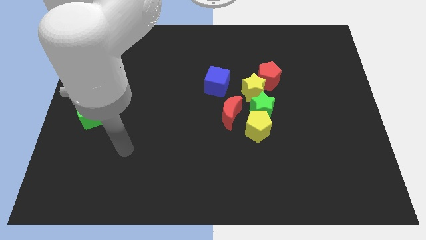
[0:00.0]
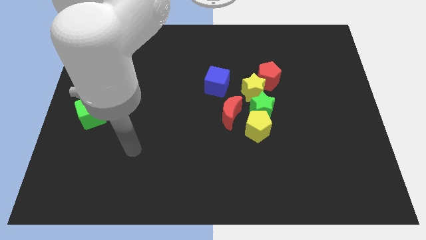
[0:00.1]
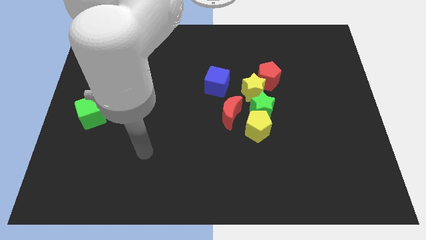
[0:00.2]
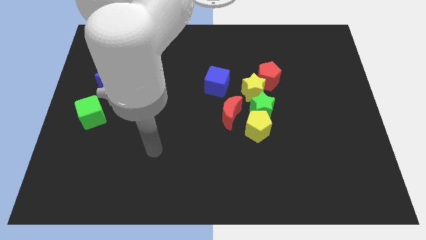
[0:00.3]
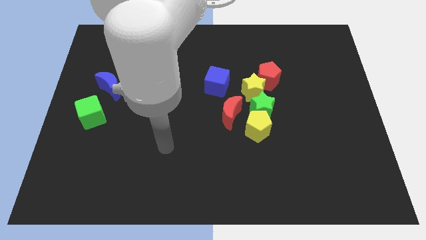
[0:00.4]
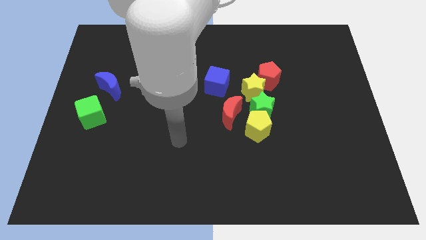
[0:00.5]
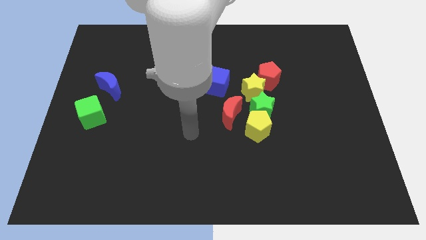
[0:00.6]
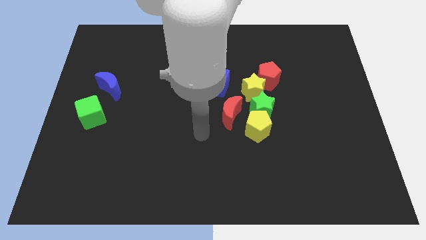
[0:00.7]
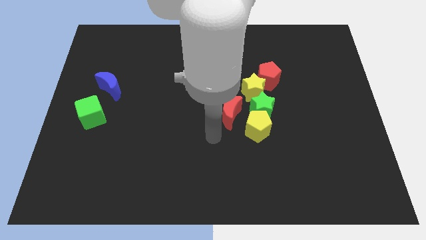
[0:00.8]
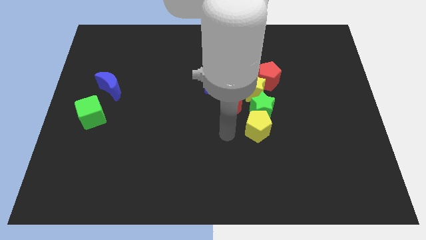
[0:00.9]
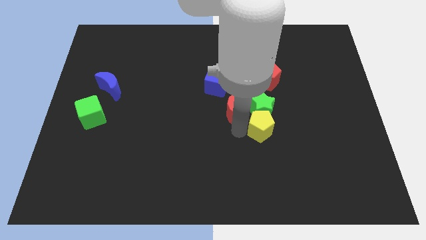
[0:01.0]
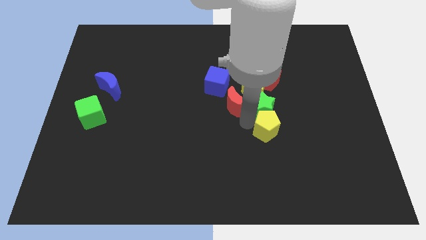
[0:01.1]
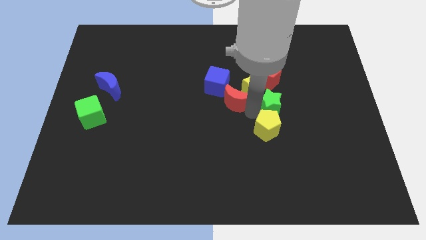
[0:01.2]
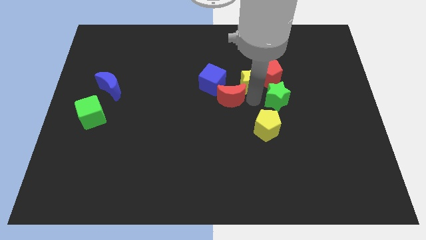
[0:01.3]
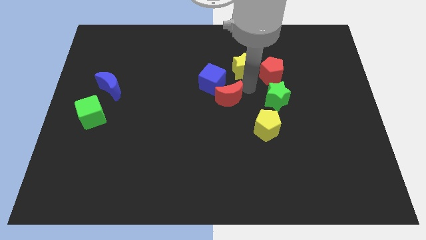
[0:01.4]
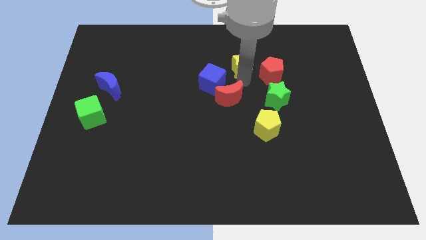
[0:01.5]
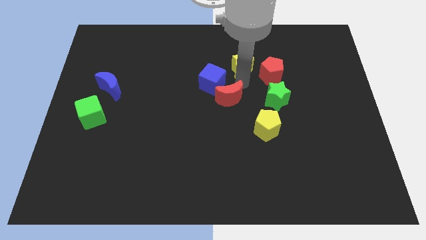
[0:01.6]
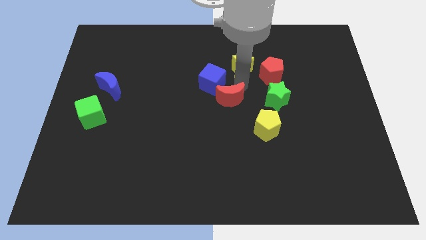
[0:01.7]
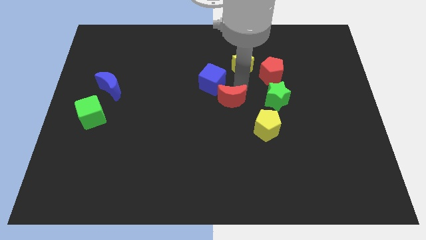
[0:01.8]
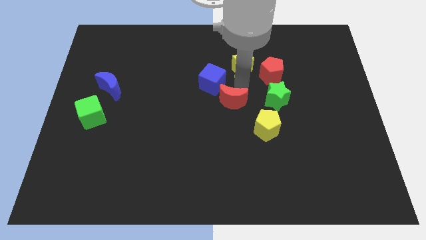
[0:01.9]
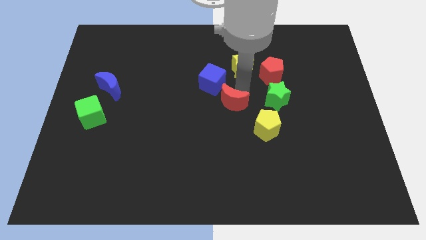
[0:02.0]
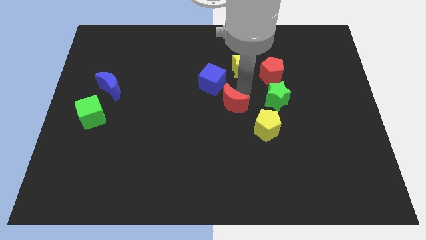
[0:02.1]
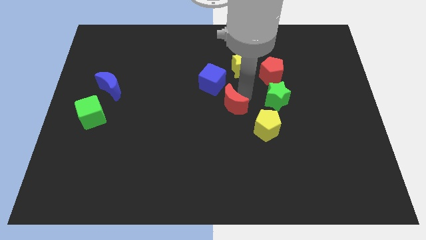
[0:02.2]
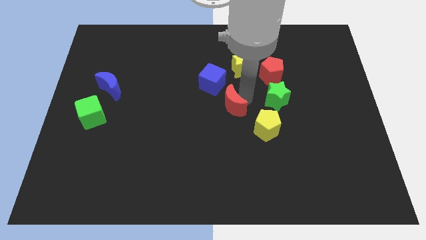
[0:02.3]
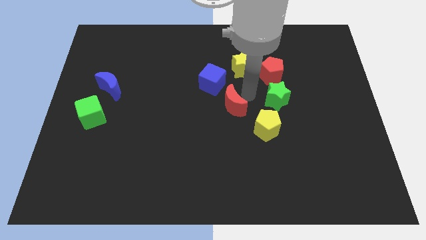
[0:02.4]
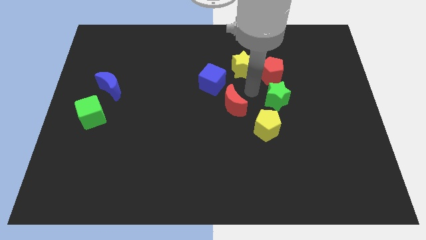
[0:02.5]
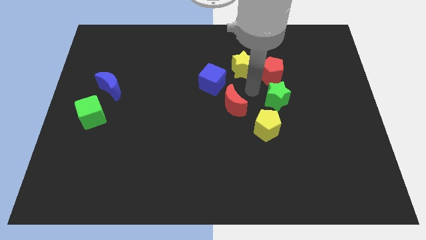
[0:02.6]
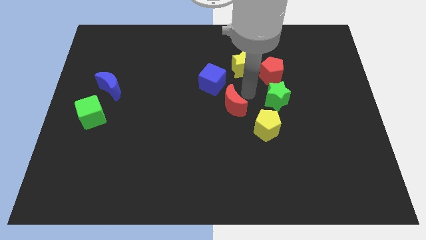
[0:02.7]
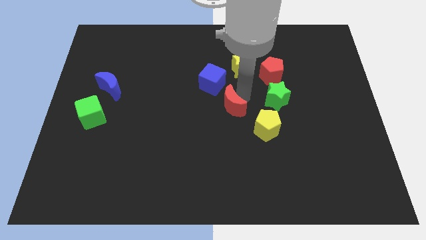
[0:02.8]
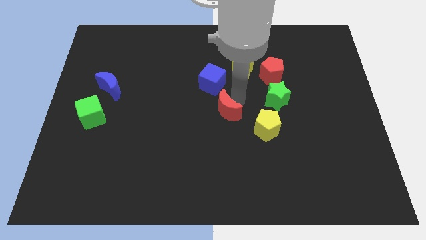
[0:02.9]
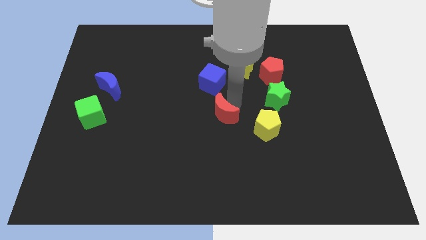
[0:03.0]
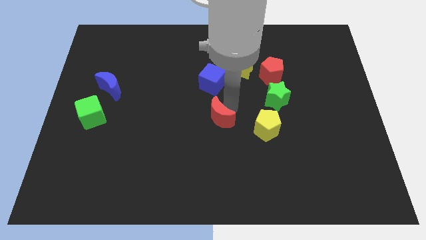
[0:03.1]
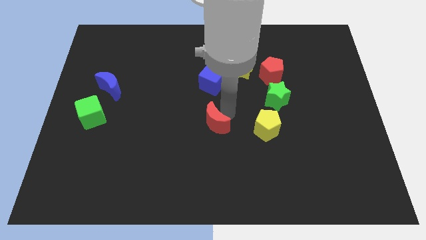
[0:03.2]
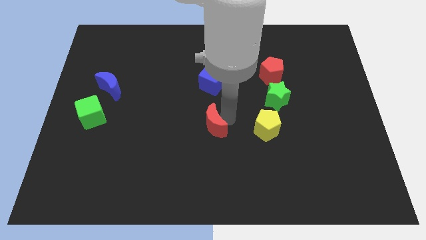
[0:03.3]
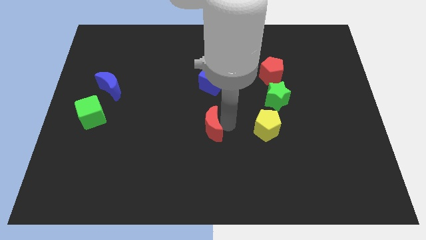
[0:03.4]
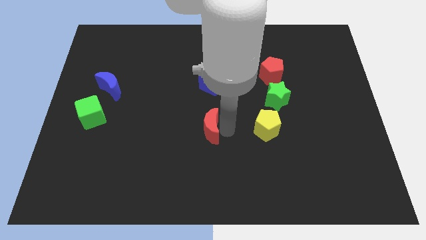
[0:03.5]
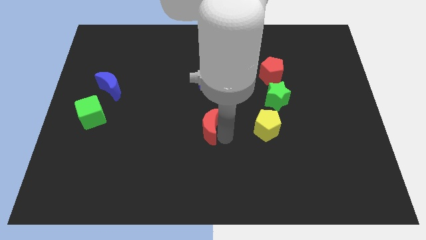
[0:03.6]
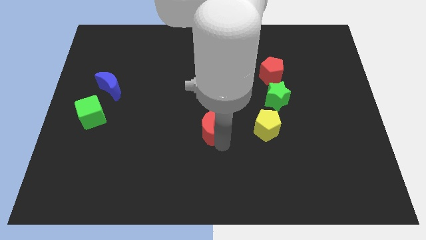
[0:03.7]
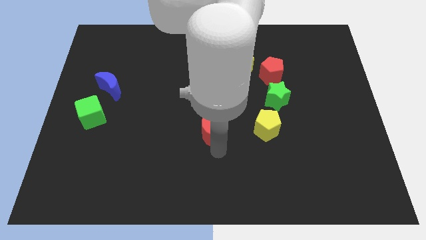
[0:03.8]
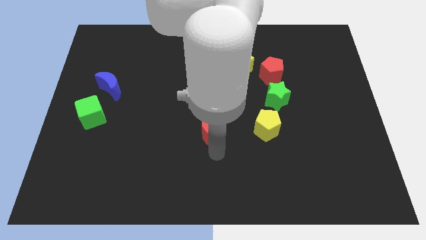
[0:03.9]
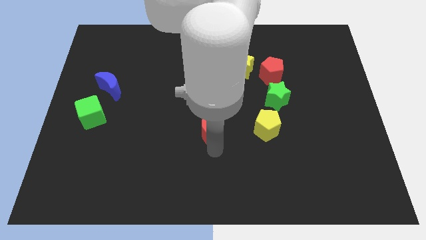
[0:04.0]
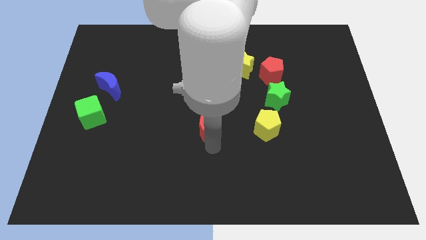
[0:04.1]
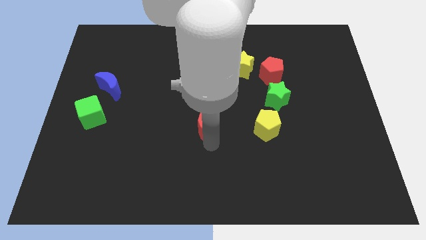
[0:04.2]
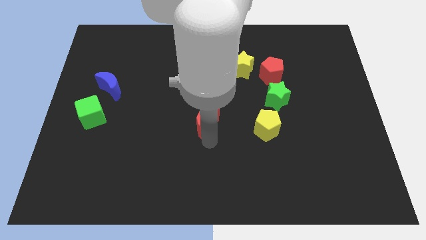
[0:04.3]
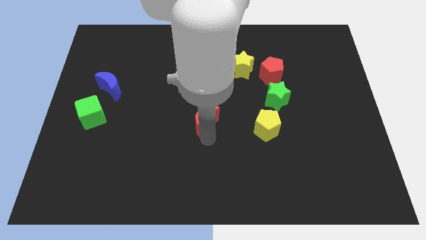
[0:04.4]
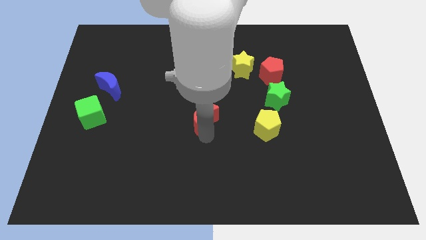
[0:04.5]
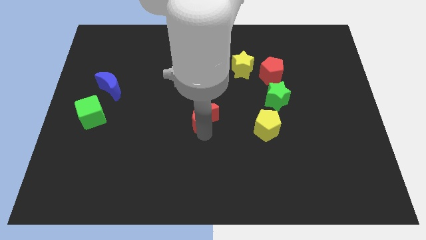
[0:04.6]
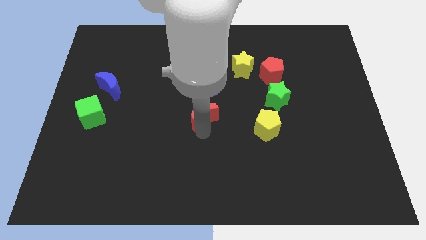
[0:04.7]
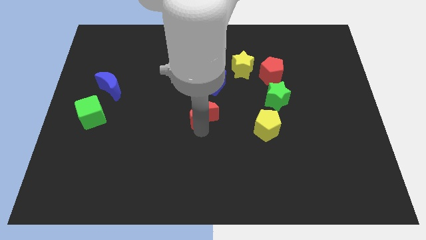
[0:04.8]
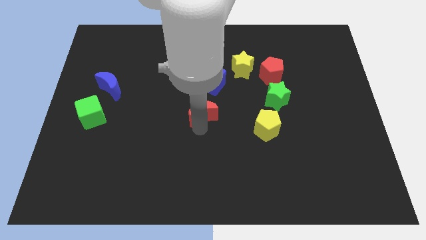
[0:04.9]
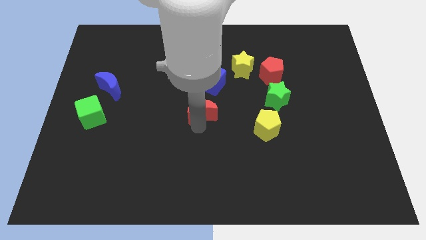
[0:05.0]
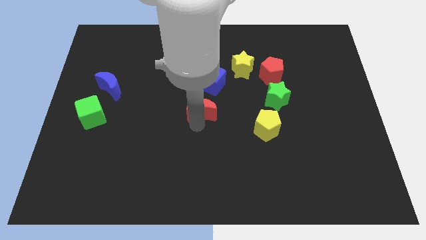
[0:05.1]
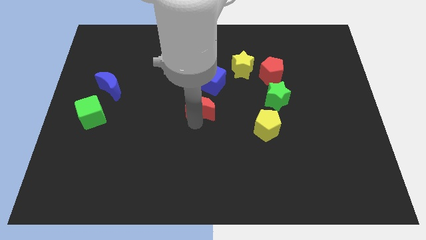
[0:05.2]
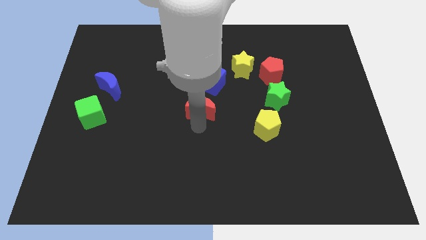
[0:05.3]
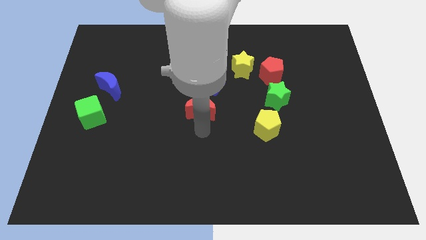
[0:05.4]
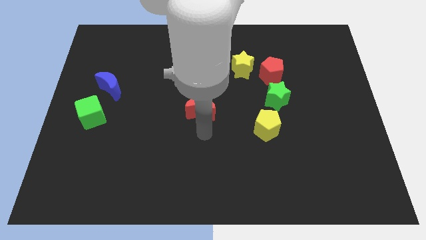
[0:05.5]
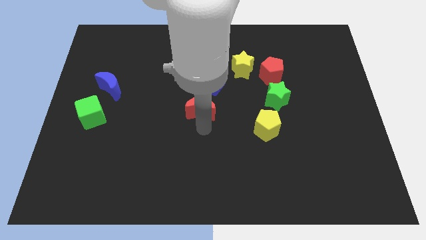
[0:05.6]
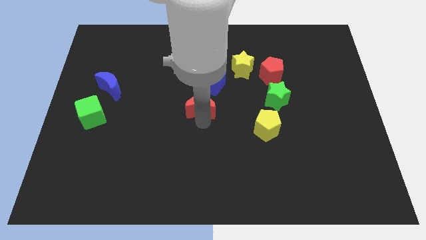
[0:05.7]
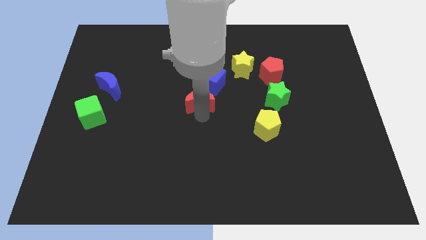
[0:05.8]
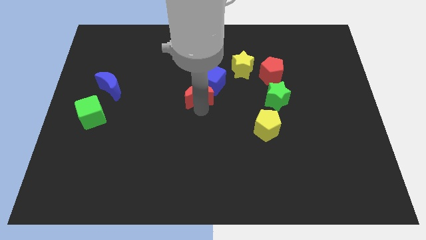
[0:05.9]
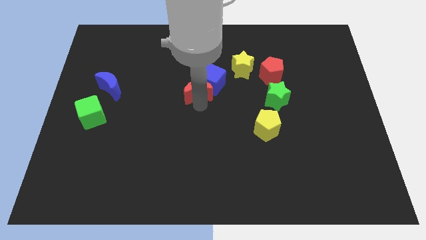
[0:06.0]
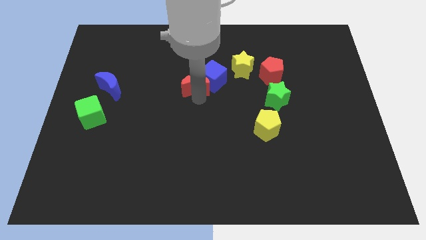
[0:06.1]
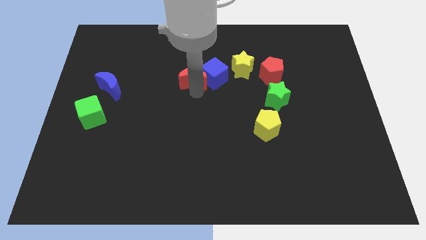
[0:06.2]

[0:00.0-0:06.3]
put the red moon to the top left of the blue cube

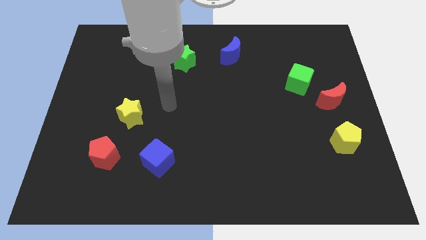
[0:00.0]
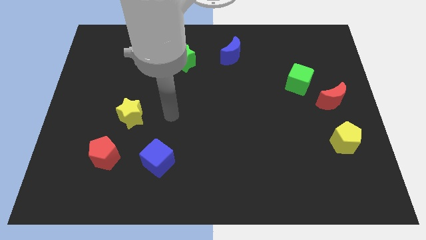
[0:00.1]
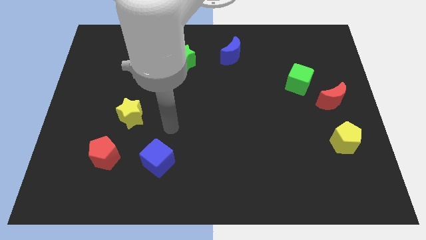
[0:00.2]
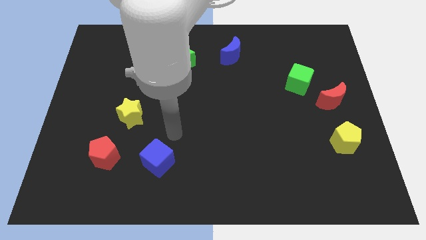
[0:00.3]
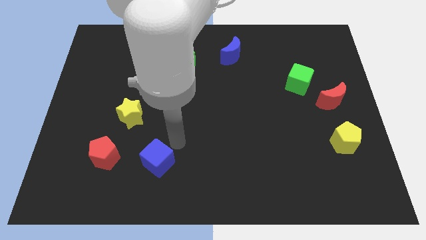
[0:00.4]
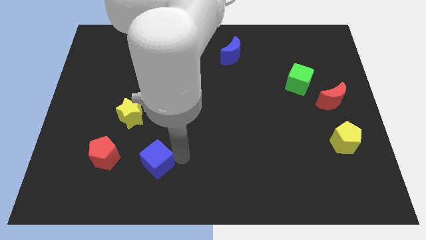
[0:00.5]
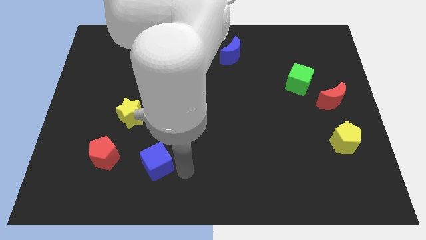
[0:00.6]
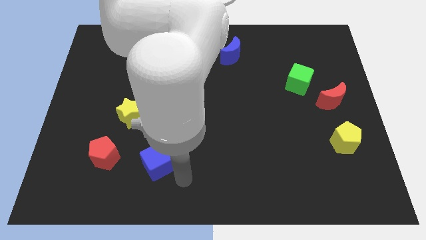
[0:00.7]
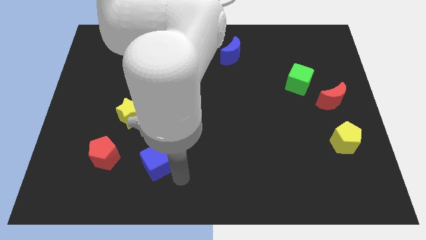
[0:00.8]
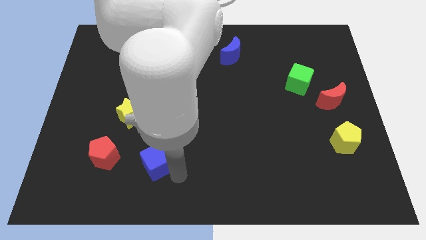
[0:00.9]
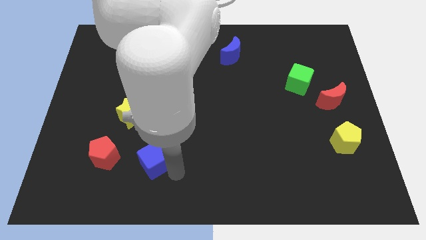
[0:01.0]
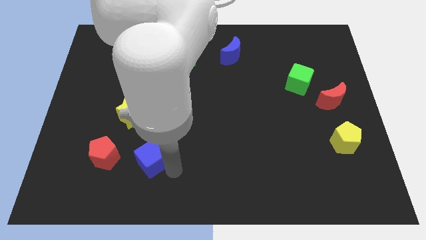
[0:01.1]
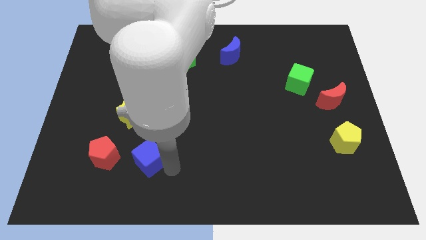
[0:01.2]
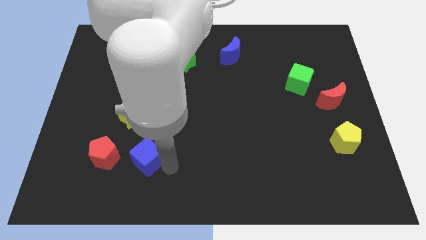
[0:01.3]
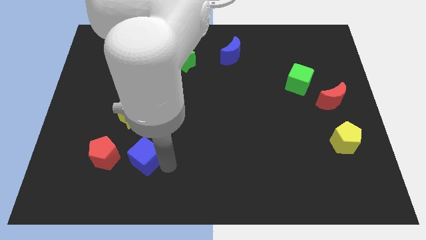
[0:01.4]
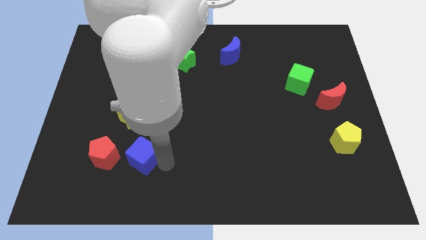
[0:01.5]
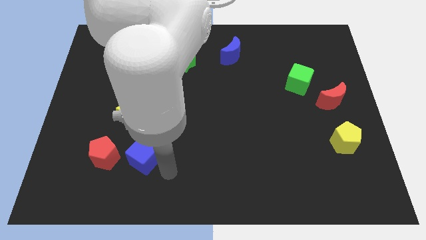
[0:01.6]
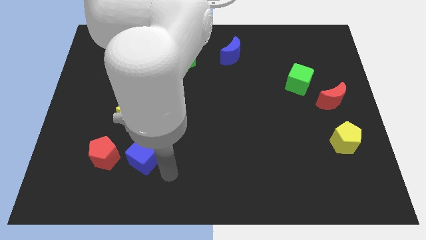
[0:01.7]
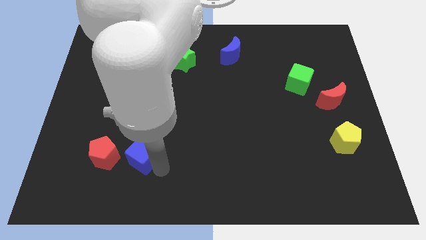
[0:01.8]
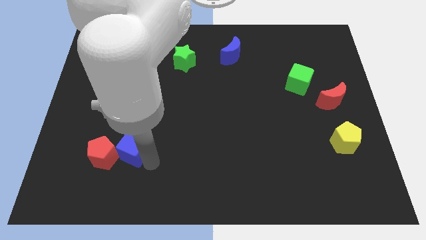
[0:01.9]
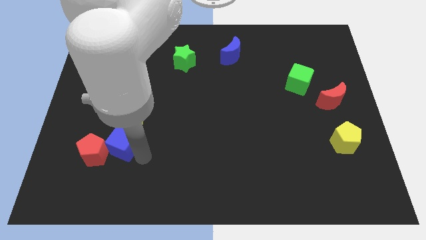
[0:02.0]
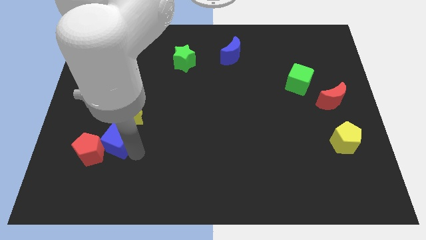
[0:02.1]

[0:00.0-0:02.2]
push the blue cube to the bottom left side of the yellow star
